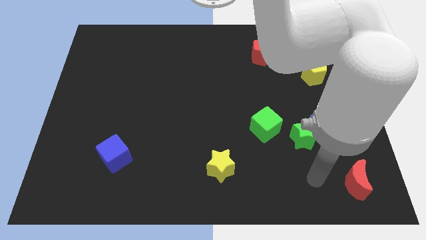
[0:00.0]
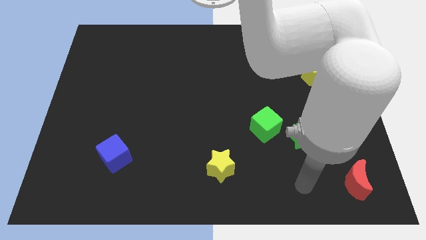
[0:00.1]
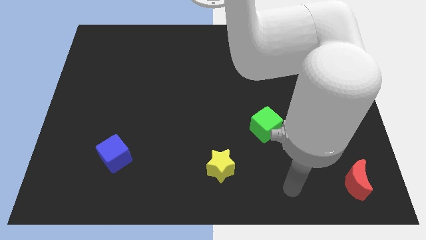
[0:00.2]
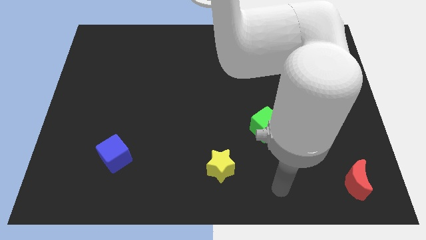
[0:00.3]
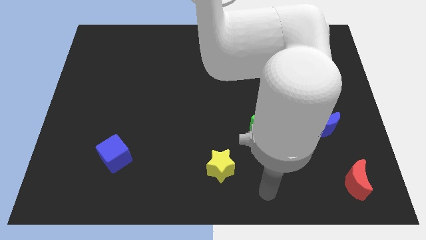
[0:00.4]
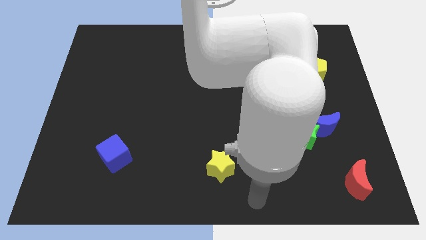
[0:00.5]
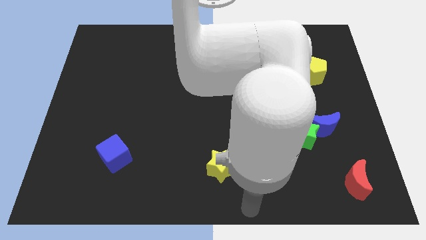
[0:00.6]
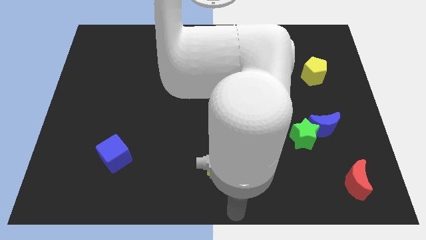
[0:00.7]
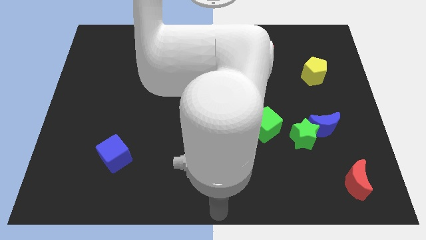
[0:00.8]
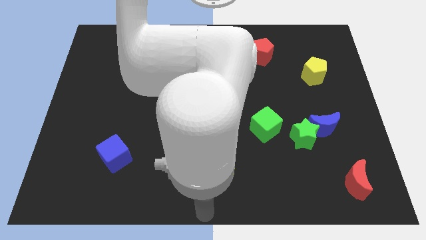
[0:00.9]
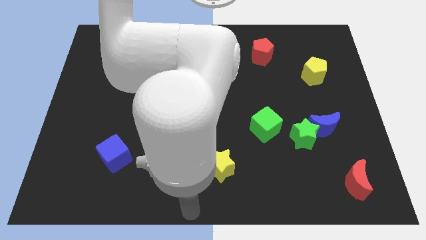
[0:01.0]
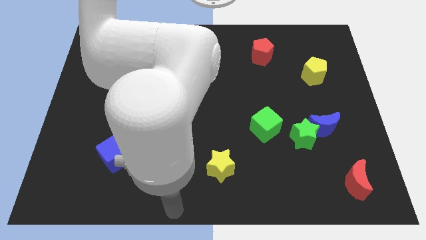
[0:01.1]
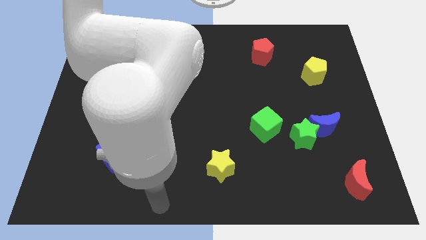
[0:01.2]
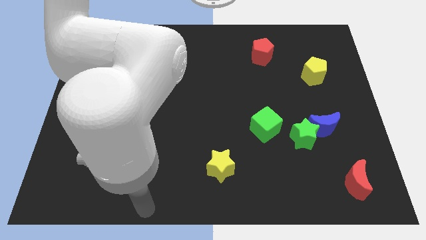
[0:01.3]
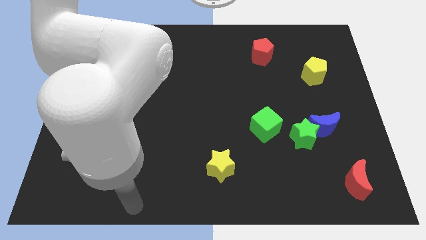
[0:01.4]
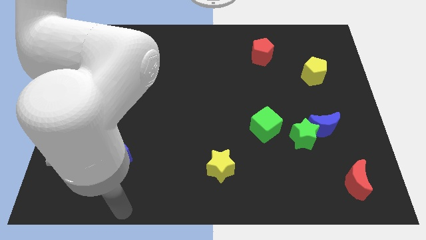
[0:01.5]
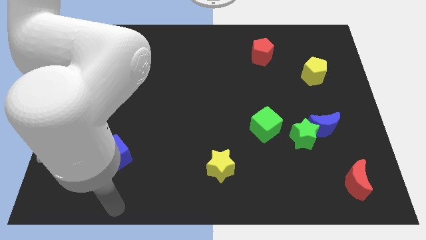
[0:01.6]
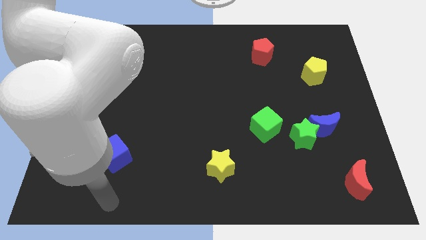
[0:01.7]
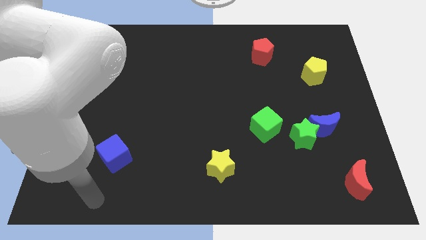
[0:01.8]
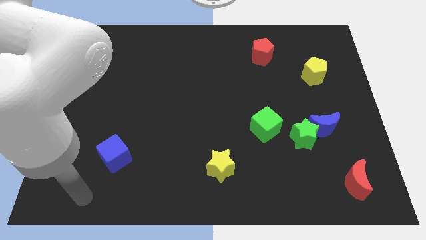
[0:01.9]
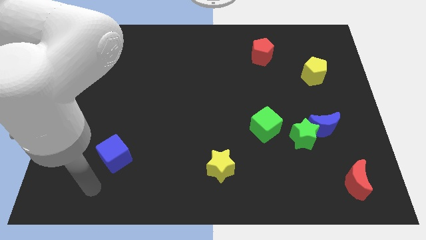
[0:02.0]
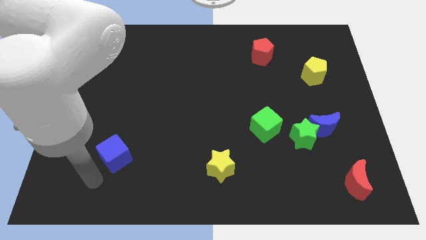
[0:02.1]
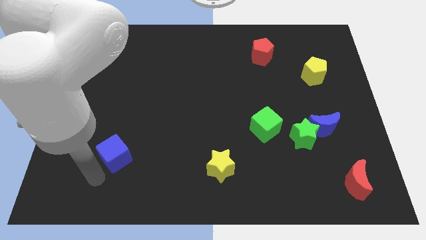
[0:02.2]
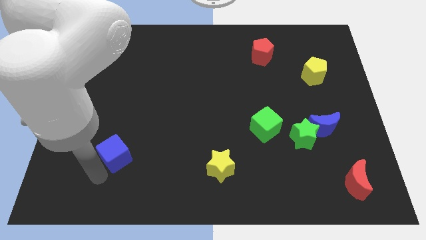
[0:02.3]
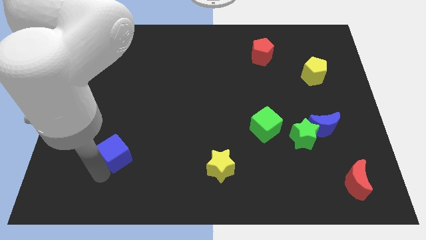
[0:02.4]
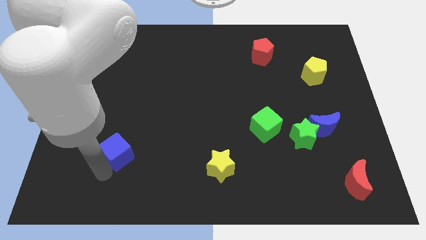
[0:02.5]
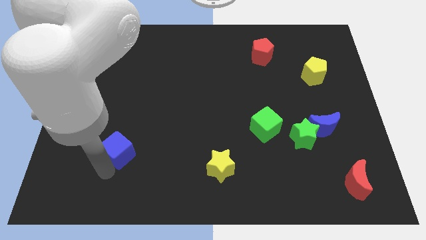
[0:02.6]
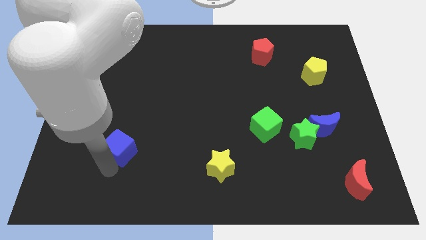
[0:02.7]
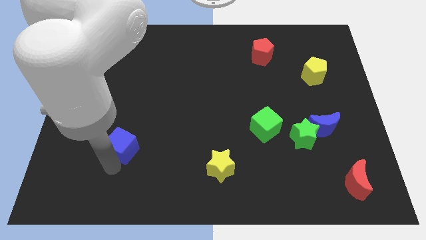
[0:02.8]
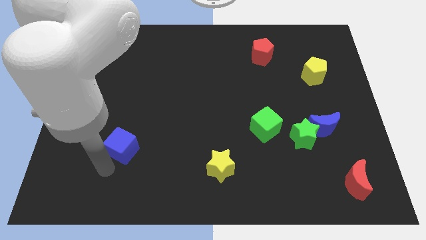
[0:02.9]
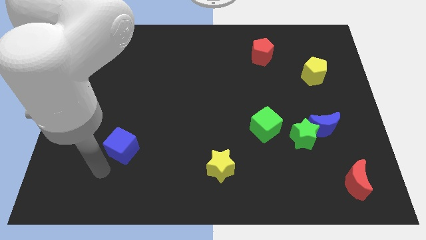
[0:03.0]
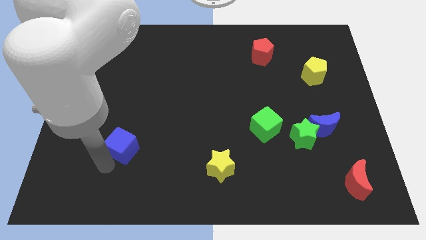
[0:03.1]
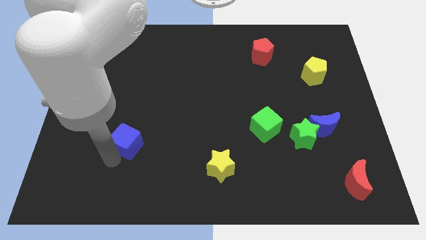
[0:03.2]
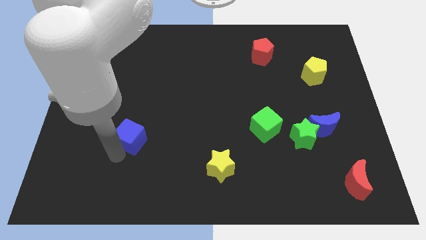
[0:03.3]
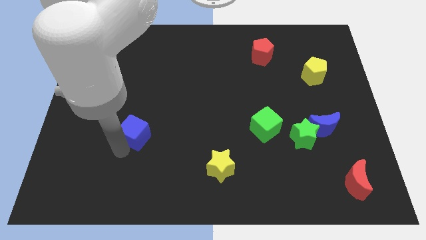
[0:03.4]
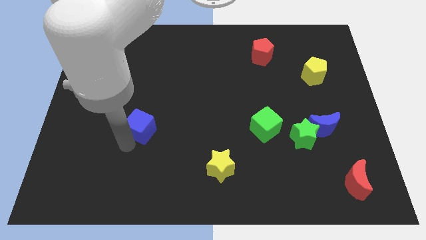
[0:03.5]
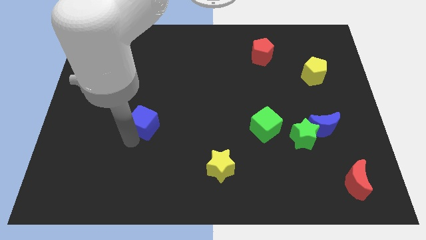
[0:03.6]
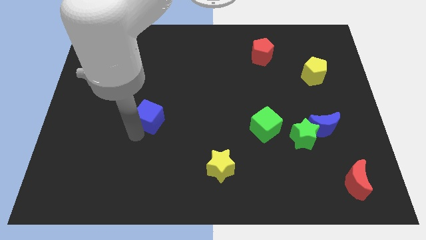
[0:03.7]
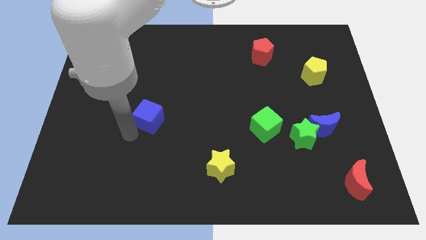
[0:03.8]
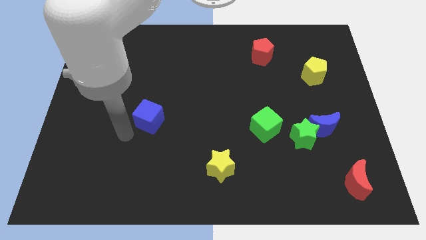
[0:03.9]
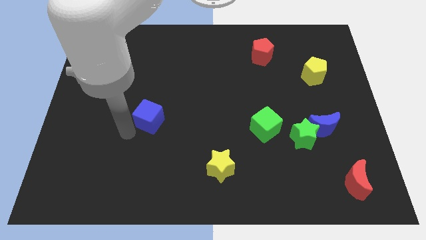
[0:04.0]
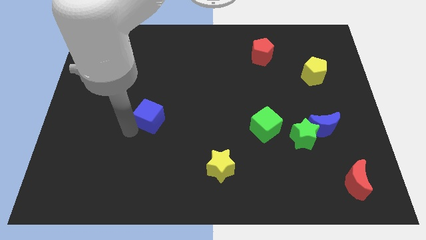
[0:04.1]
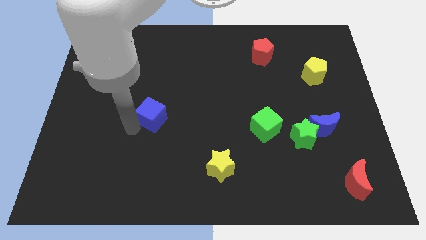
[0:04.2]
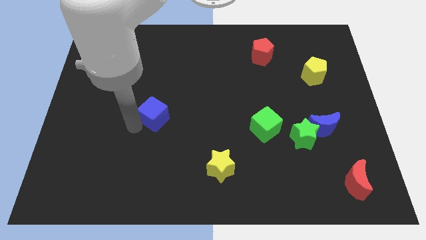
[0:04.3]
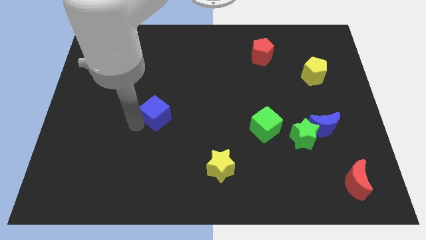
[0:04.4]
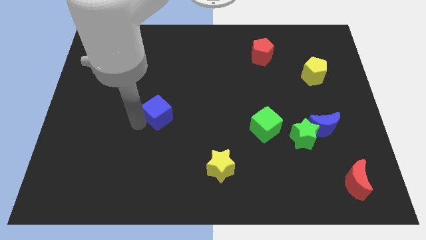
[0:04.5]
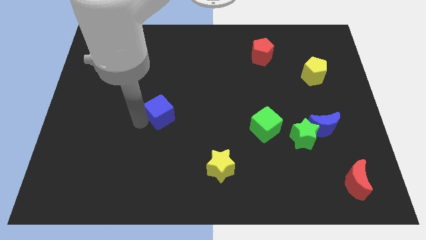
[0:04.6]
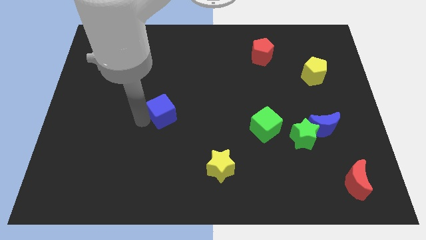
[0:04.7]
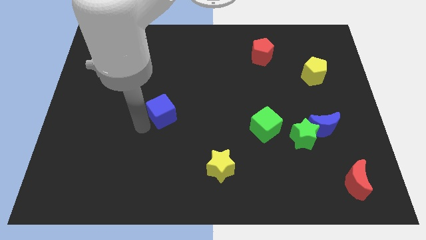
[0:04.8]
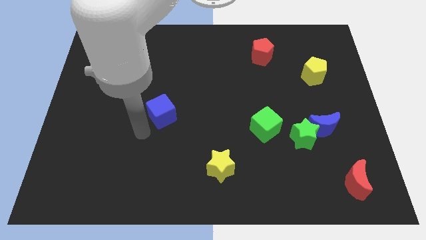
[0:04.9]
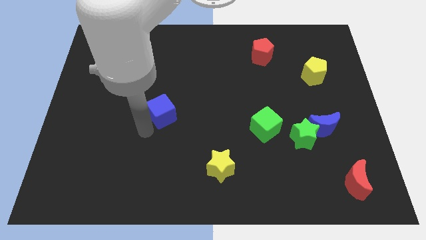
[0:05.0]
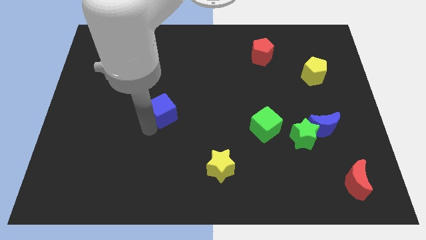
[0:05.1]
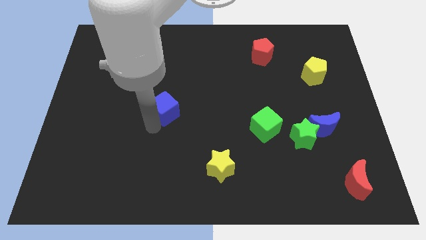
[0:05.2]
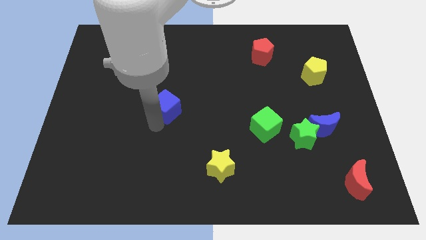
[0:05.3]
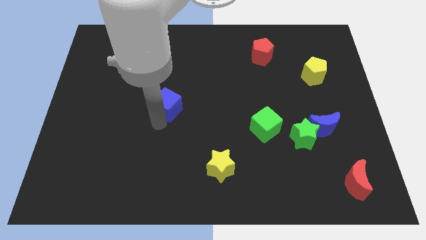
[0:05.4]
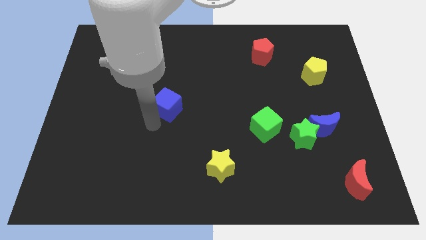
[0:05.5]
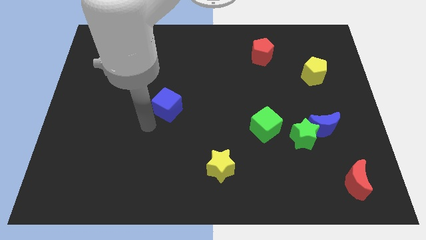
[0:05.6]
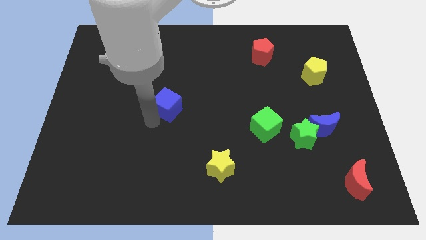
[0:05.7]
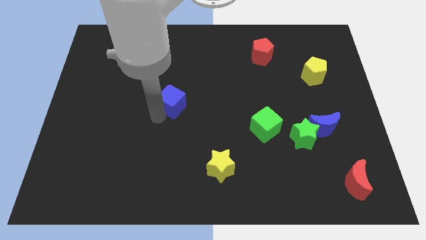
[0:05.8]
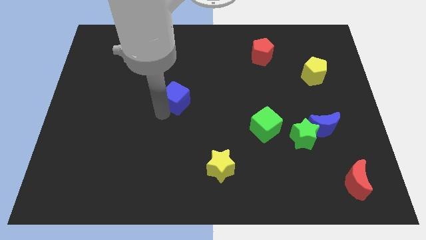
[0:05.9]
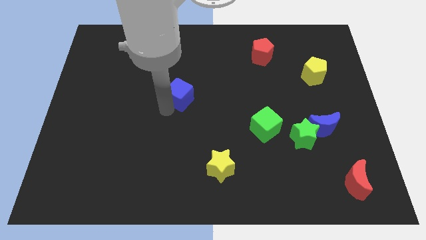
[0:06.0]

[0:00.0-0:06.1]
move the blue cube up and right

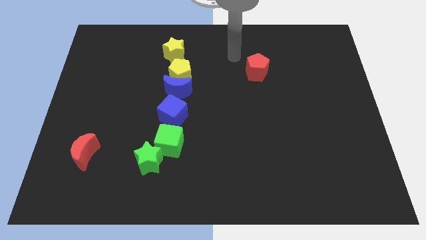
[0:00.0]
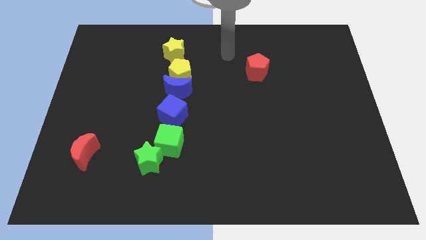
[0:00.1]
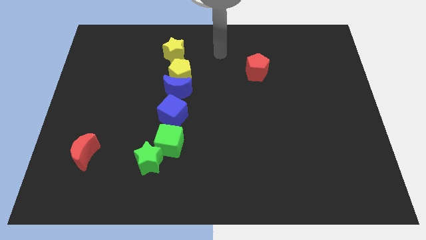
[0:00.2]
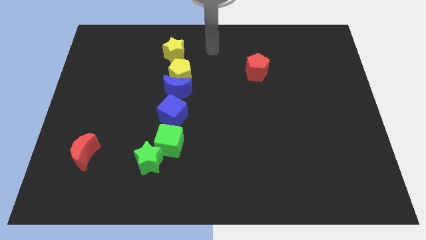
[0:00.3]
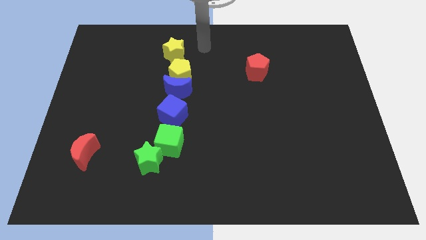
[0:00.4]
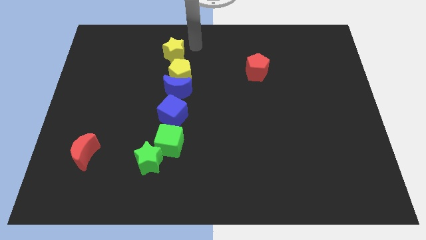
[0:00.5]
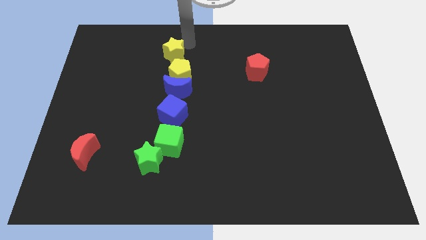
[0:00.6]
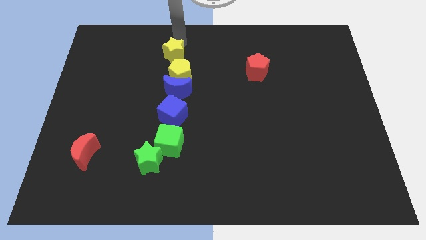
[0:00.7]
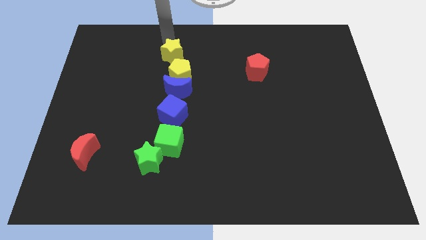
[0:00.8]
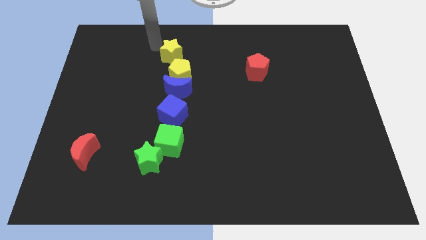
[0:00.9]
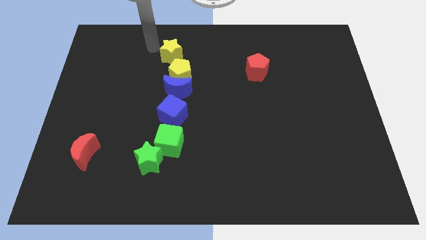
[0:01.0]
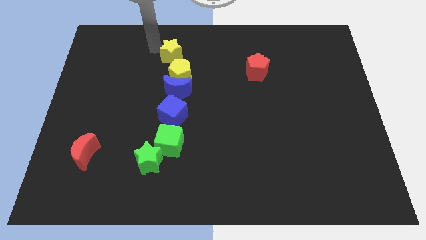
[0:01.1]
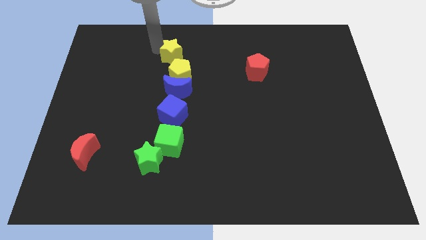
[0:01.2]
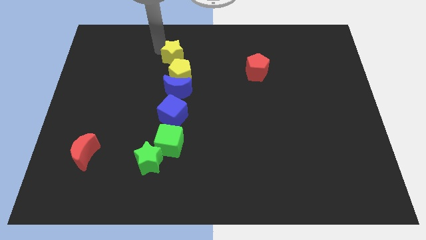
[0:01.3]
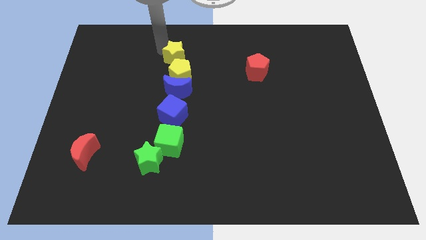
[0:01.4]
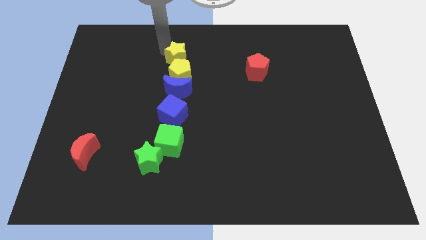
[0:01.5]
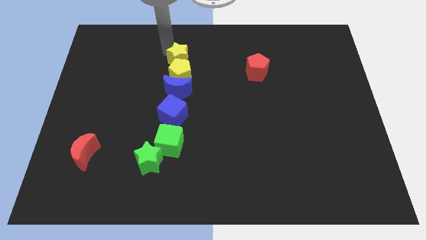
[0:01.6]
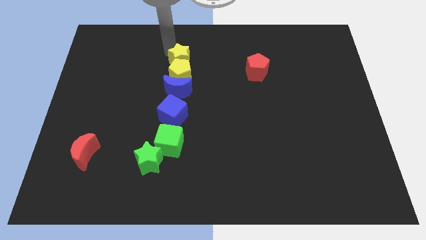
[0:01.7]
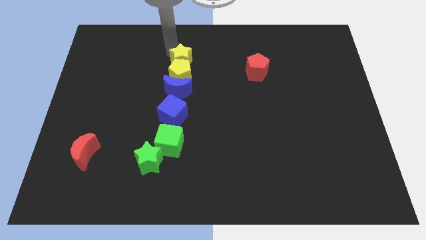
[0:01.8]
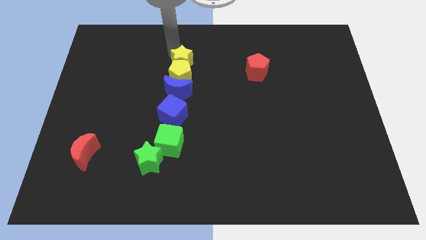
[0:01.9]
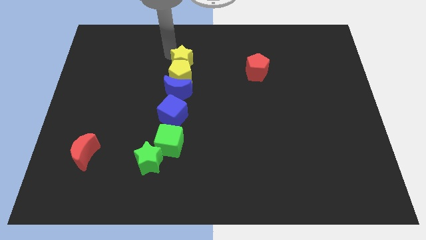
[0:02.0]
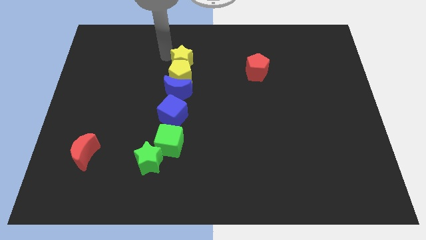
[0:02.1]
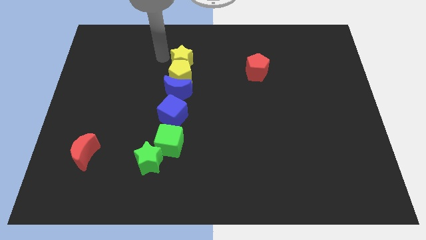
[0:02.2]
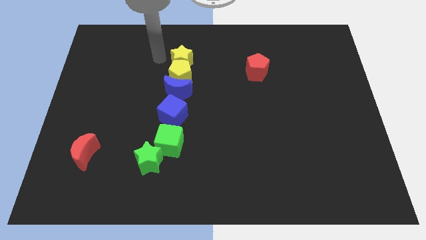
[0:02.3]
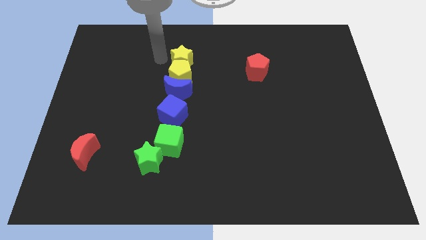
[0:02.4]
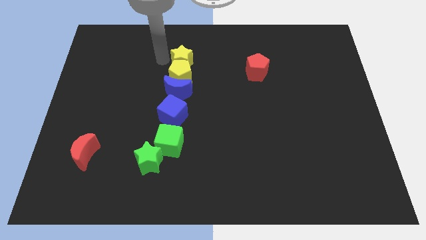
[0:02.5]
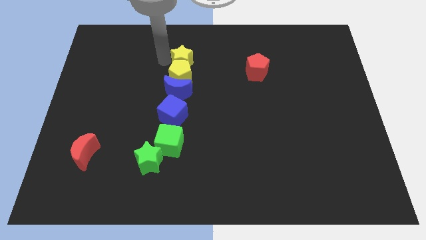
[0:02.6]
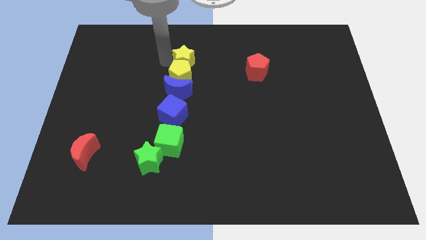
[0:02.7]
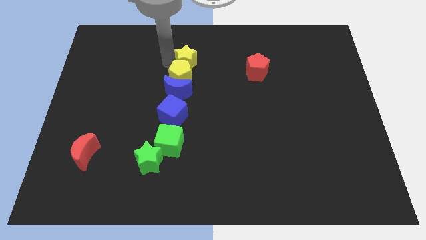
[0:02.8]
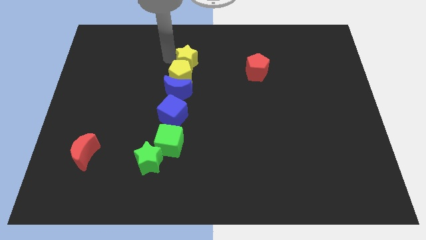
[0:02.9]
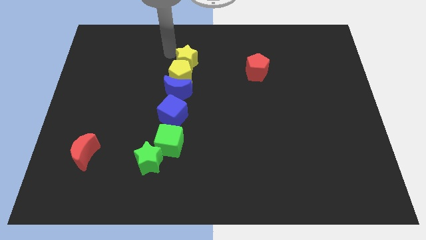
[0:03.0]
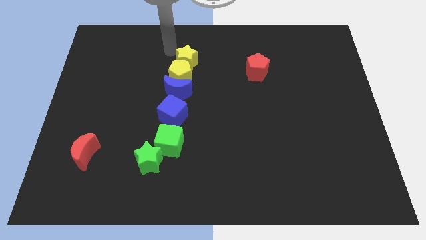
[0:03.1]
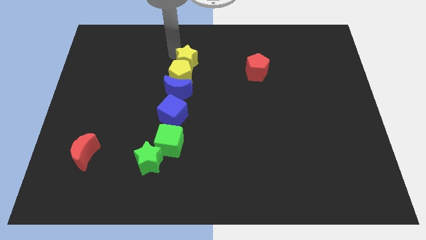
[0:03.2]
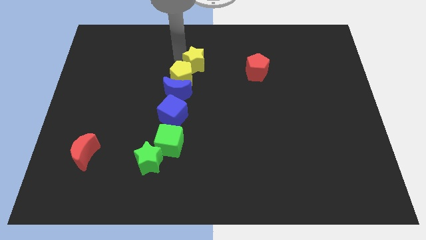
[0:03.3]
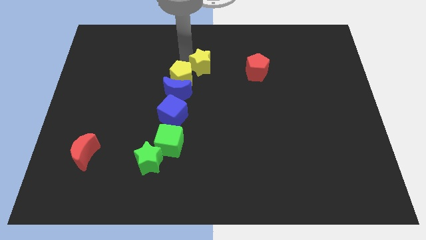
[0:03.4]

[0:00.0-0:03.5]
slightly move the yellow star downwards and right diagonally
